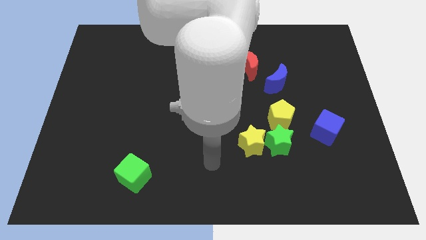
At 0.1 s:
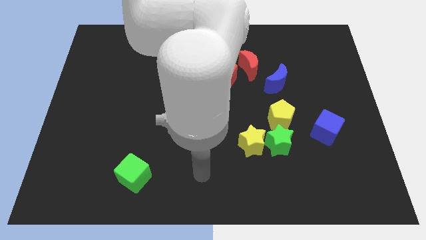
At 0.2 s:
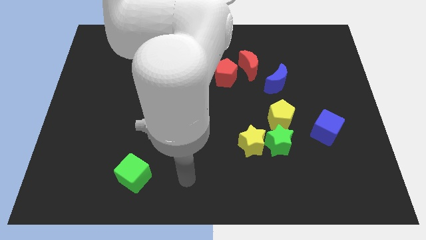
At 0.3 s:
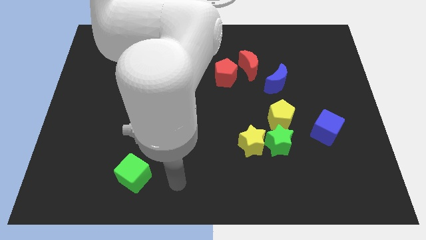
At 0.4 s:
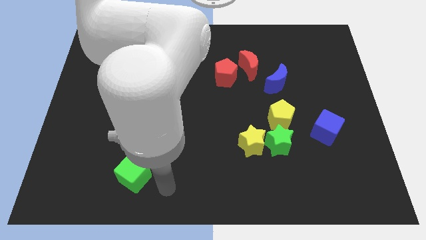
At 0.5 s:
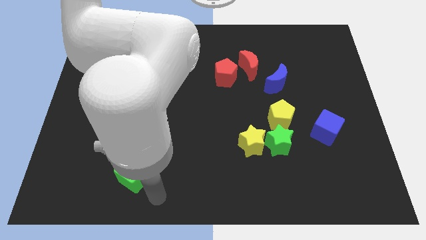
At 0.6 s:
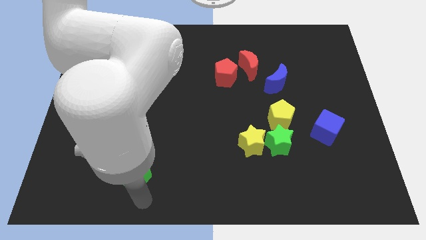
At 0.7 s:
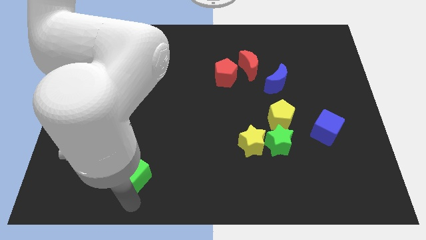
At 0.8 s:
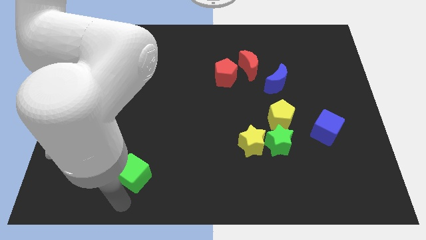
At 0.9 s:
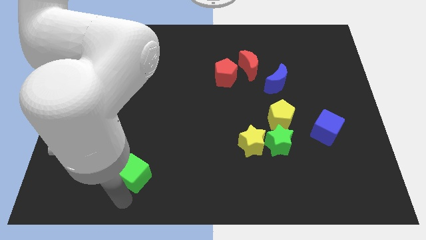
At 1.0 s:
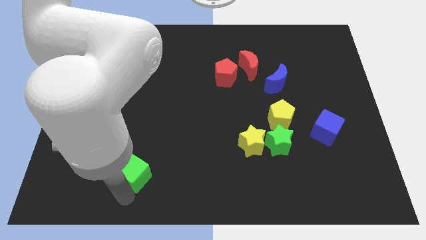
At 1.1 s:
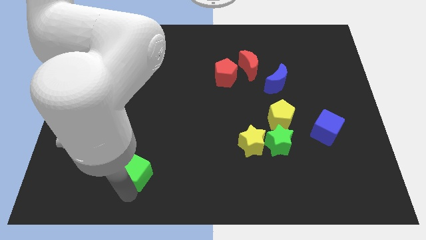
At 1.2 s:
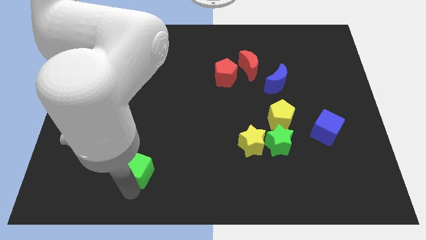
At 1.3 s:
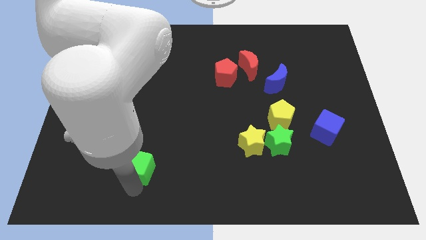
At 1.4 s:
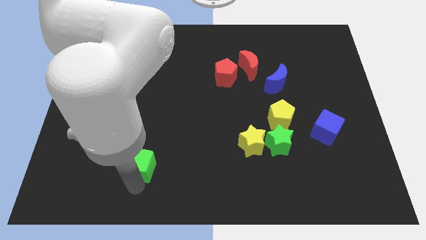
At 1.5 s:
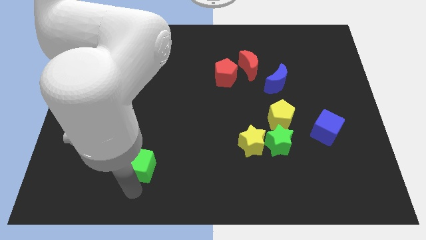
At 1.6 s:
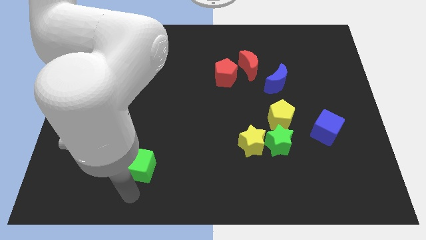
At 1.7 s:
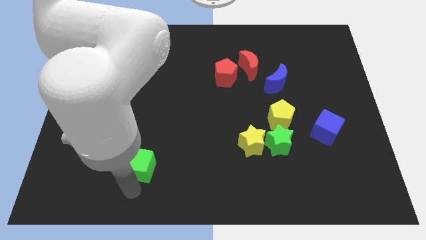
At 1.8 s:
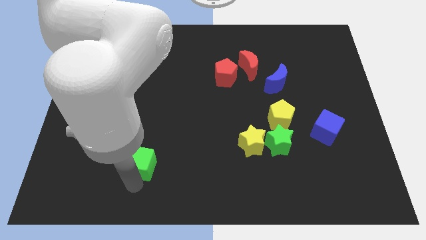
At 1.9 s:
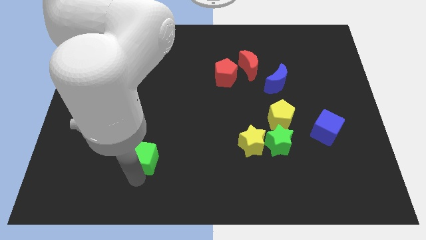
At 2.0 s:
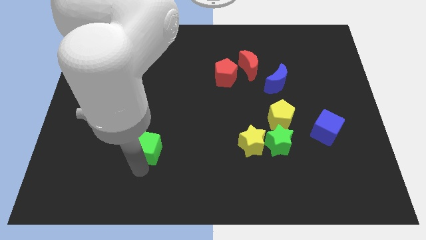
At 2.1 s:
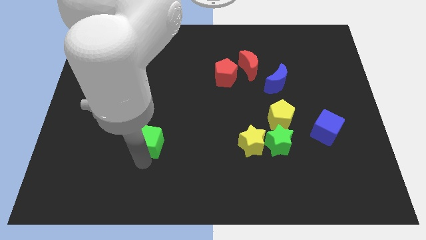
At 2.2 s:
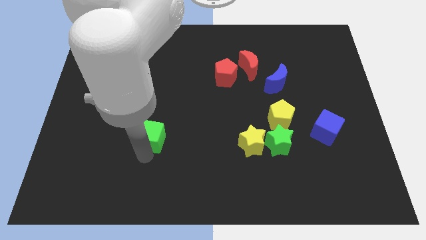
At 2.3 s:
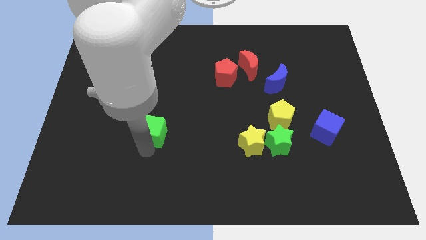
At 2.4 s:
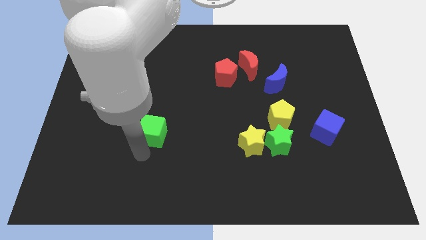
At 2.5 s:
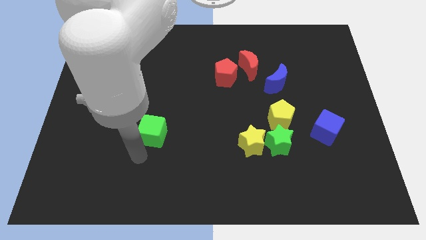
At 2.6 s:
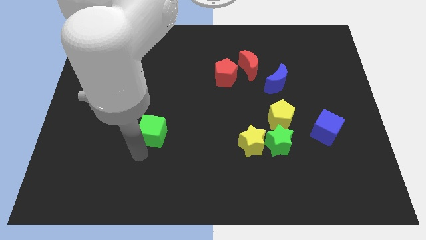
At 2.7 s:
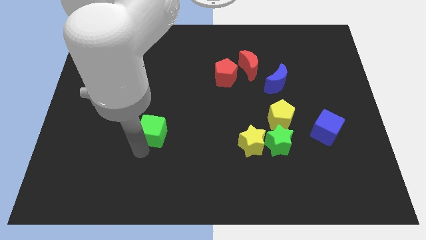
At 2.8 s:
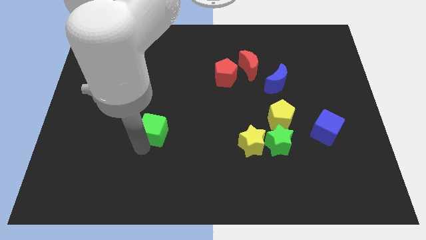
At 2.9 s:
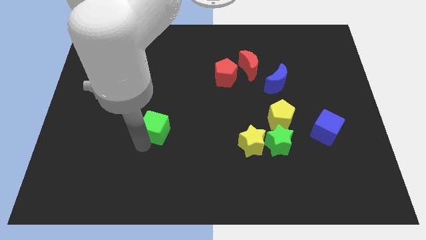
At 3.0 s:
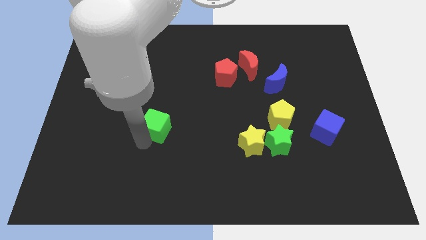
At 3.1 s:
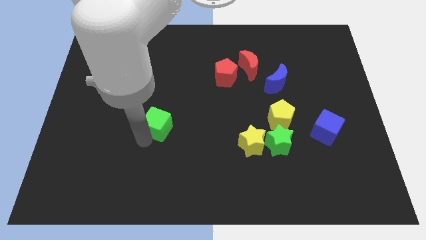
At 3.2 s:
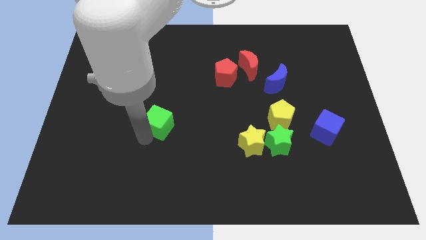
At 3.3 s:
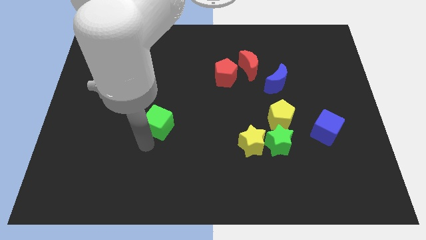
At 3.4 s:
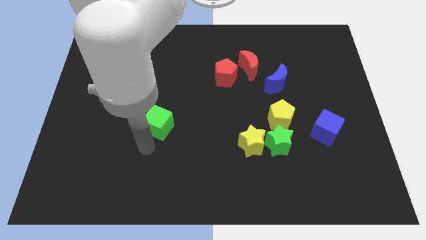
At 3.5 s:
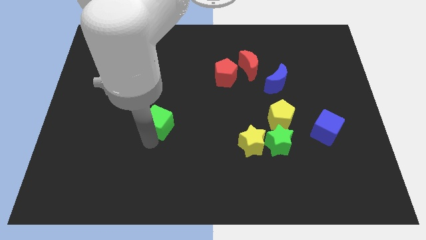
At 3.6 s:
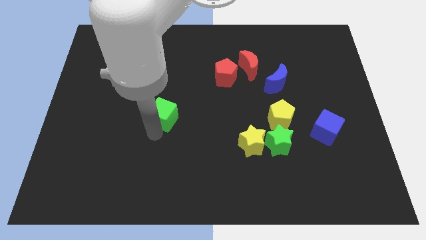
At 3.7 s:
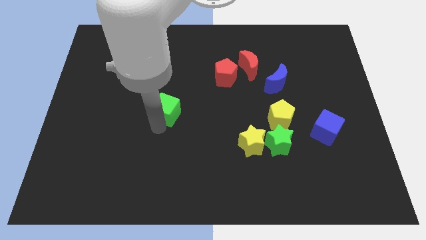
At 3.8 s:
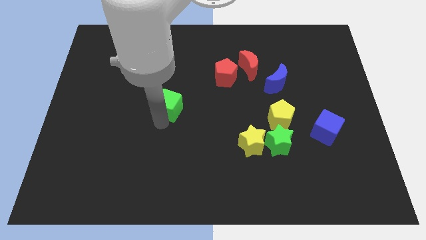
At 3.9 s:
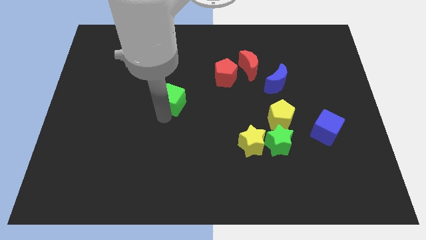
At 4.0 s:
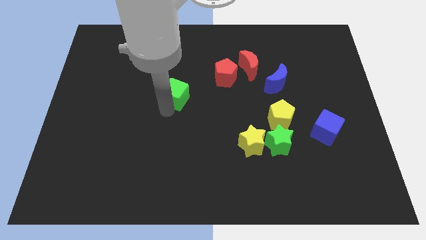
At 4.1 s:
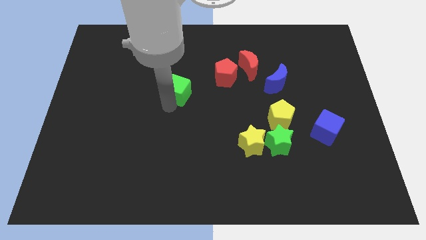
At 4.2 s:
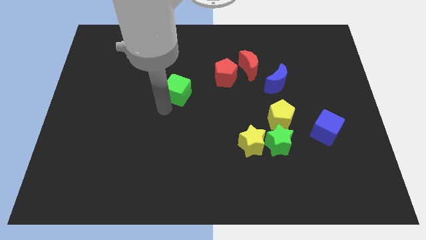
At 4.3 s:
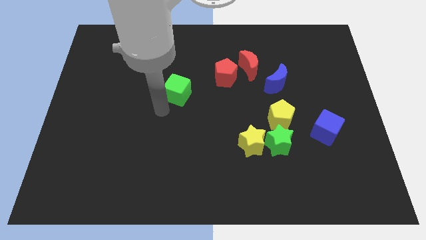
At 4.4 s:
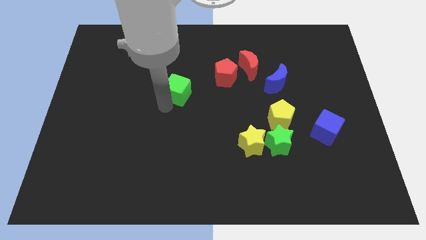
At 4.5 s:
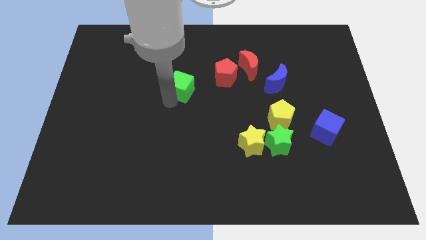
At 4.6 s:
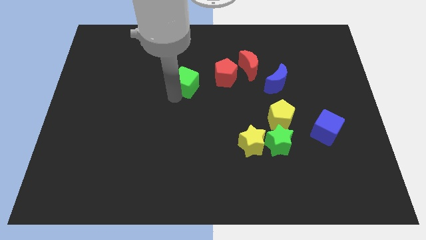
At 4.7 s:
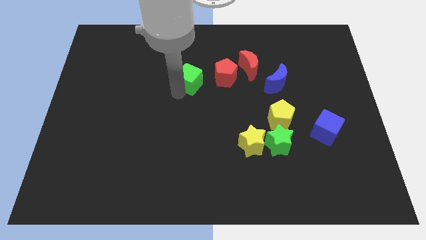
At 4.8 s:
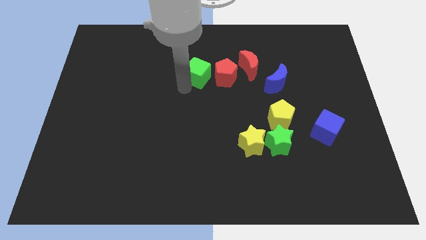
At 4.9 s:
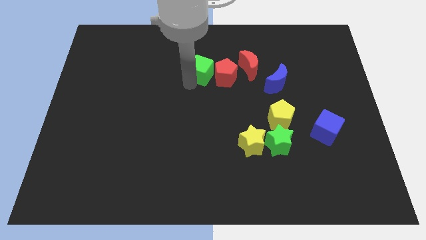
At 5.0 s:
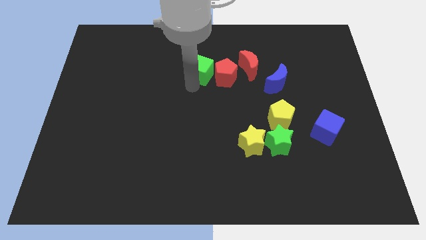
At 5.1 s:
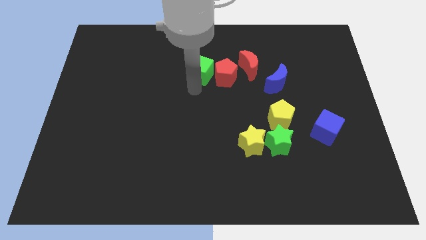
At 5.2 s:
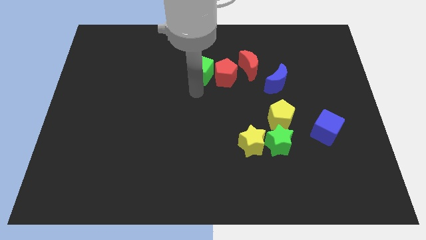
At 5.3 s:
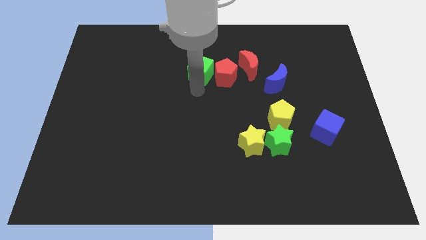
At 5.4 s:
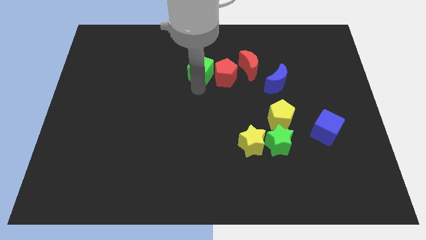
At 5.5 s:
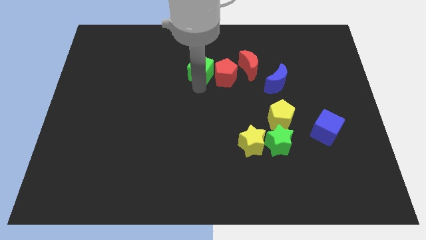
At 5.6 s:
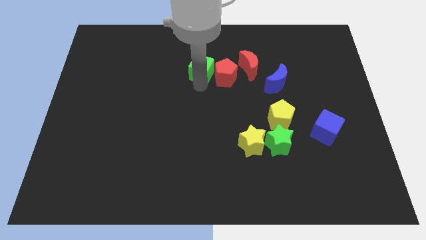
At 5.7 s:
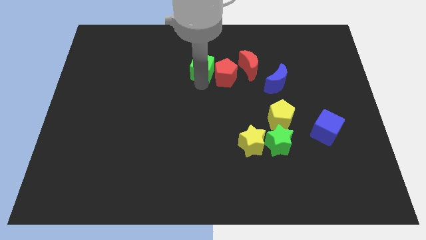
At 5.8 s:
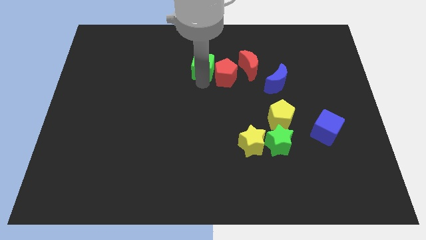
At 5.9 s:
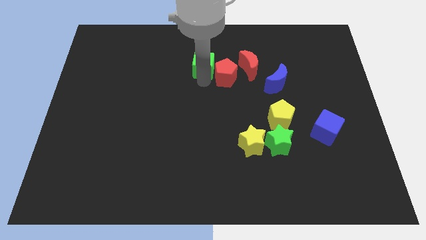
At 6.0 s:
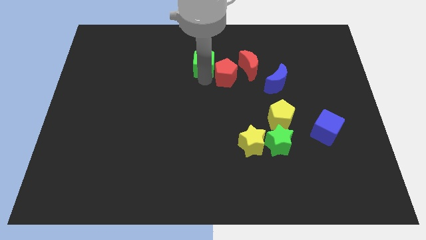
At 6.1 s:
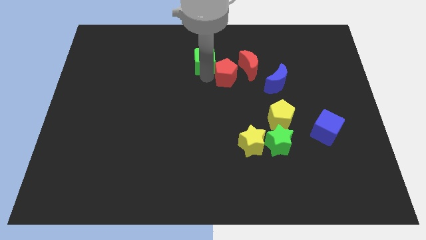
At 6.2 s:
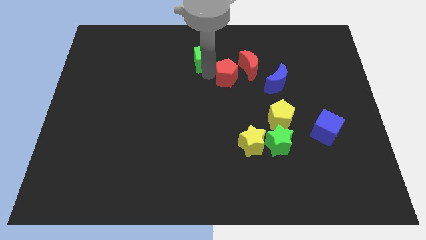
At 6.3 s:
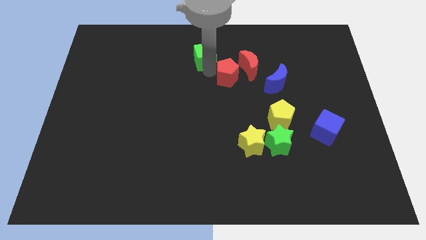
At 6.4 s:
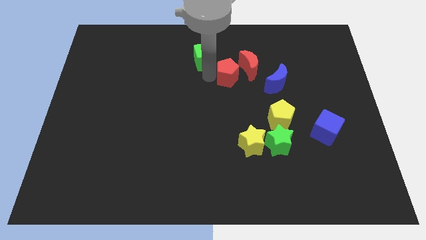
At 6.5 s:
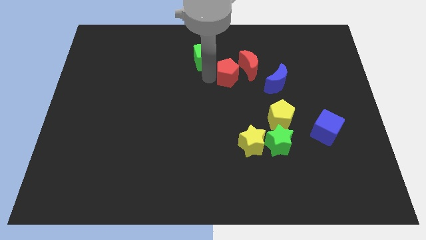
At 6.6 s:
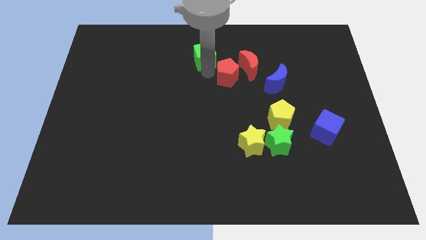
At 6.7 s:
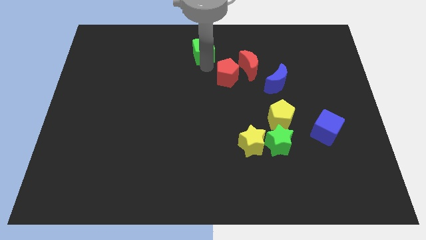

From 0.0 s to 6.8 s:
put the green cube to the top side
